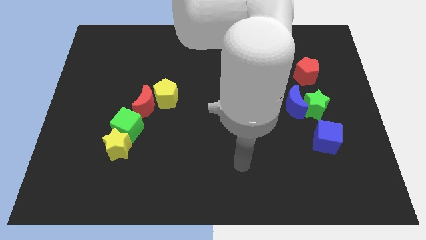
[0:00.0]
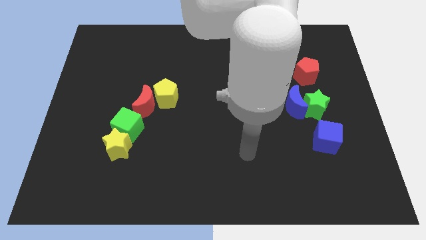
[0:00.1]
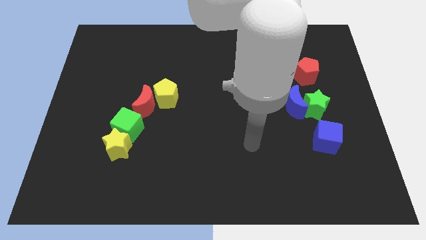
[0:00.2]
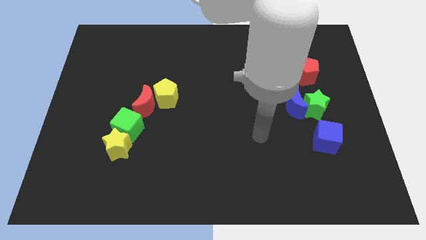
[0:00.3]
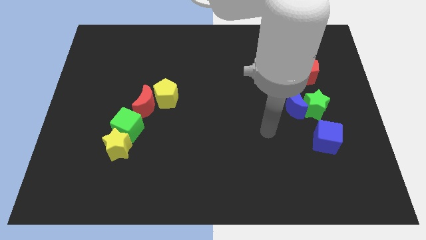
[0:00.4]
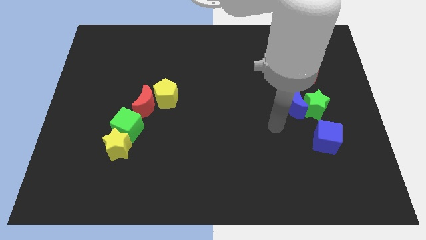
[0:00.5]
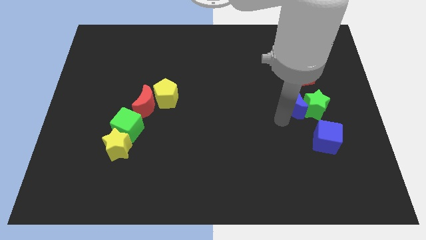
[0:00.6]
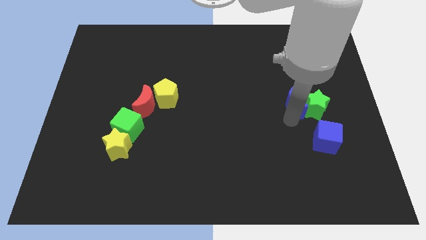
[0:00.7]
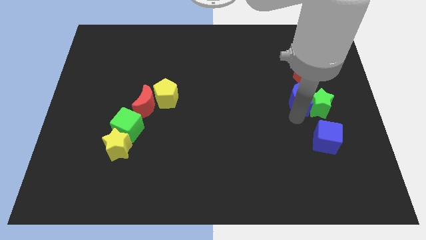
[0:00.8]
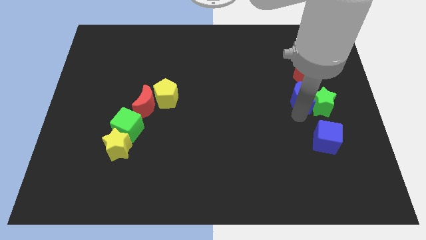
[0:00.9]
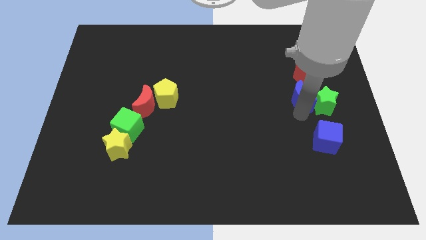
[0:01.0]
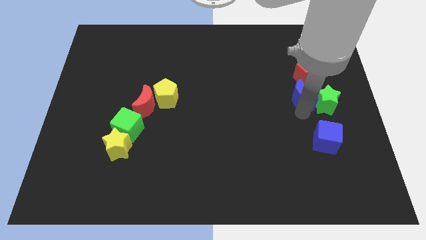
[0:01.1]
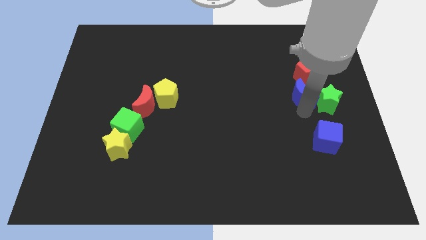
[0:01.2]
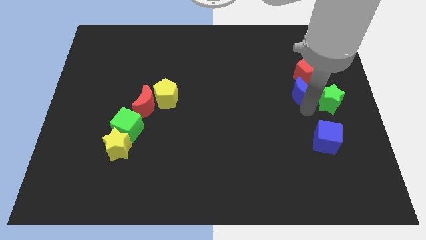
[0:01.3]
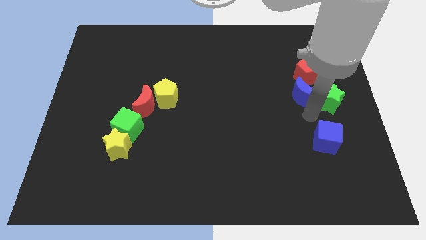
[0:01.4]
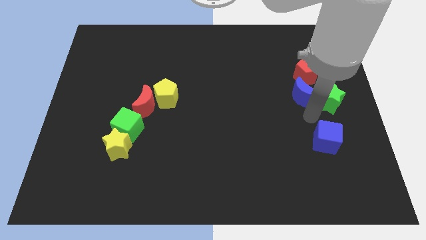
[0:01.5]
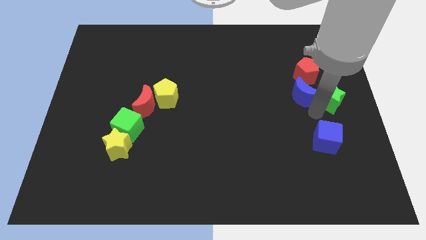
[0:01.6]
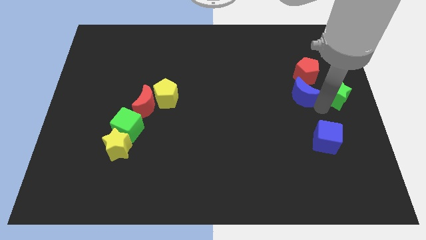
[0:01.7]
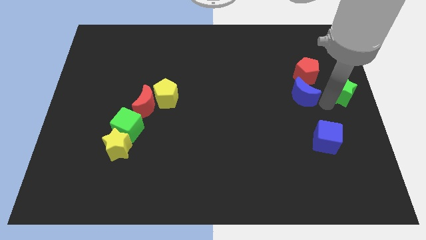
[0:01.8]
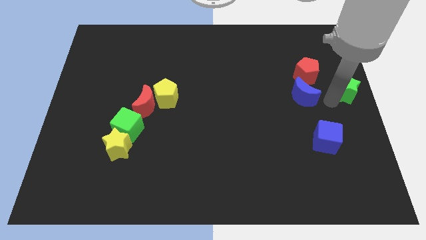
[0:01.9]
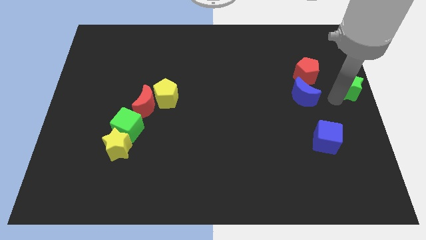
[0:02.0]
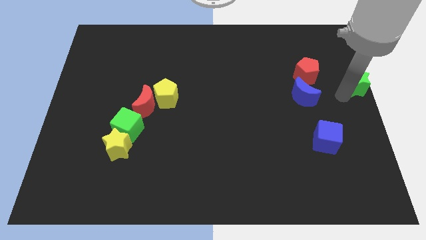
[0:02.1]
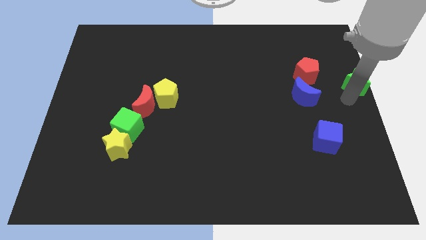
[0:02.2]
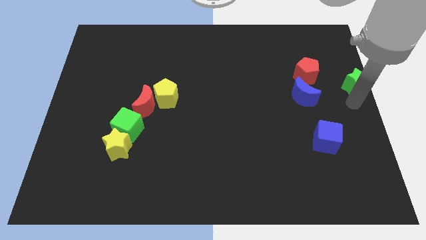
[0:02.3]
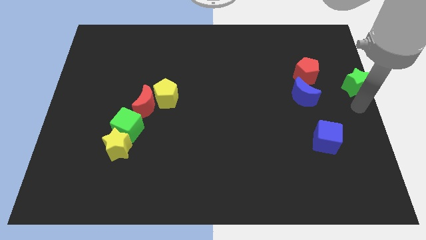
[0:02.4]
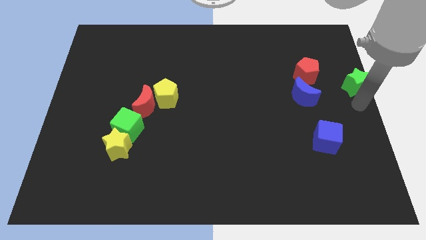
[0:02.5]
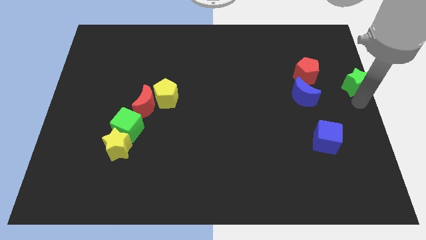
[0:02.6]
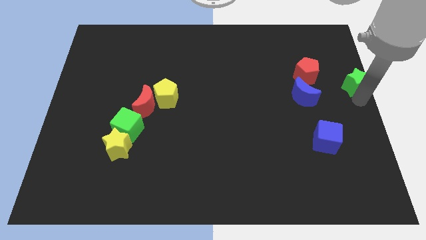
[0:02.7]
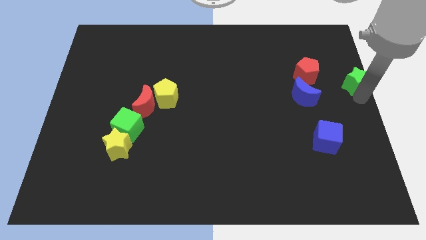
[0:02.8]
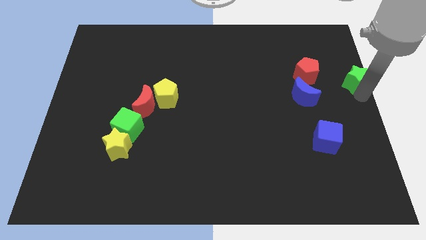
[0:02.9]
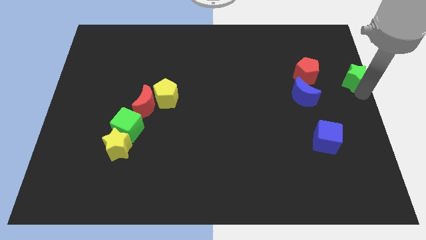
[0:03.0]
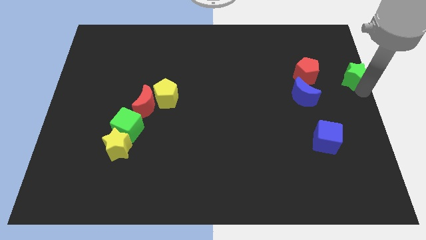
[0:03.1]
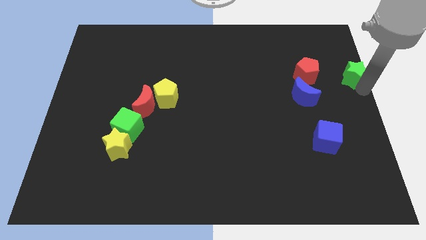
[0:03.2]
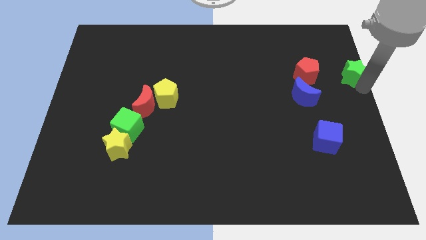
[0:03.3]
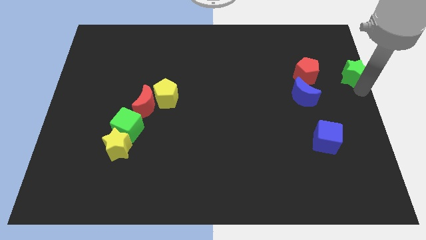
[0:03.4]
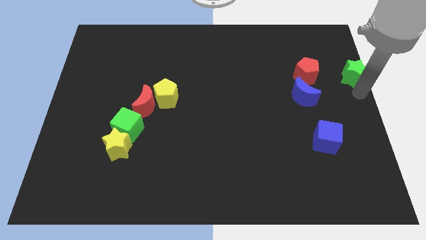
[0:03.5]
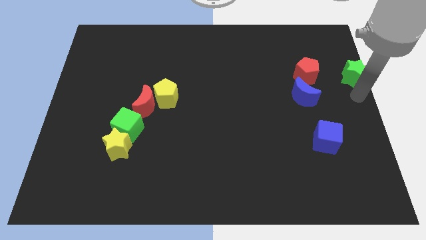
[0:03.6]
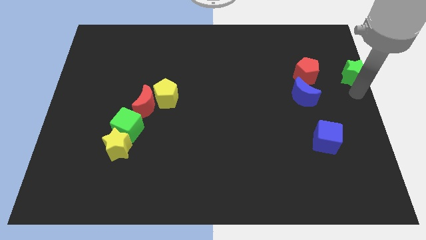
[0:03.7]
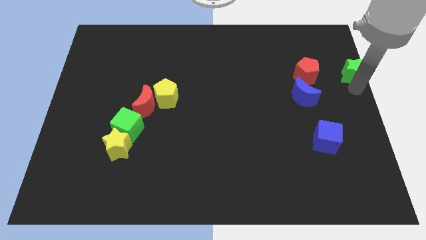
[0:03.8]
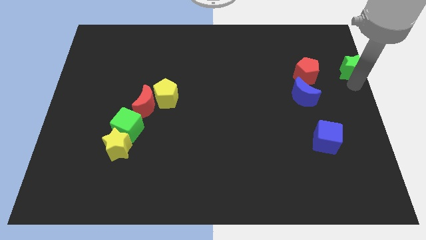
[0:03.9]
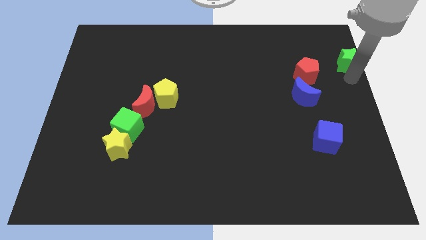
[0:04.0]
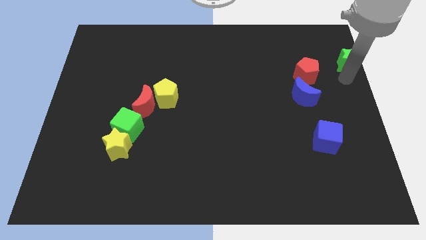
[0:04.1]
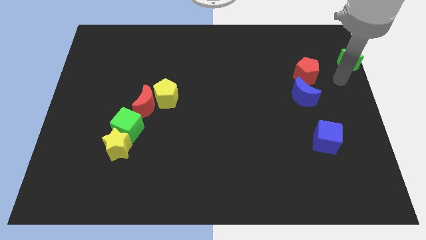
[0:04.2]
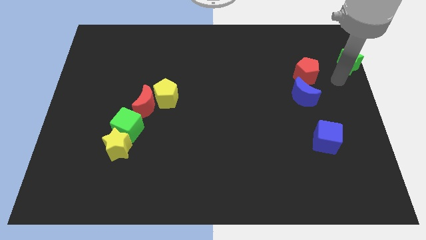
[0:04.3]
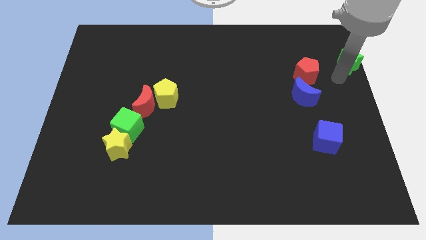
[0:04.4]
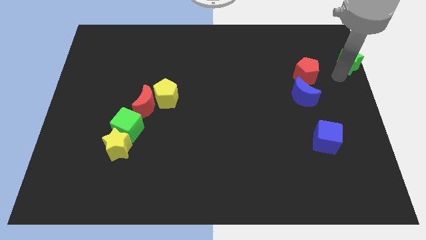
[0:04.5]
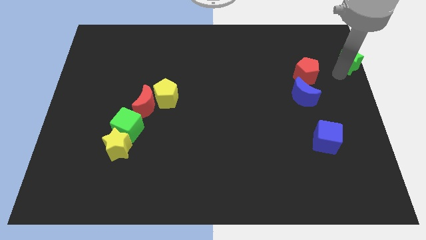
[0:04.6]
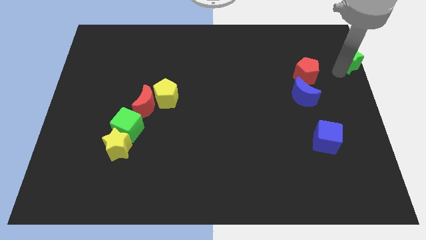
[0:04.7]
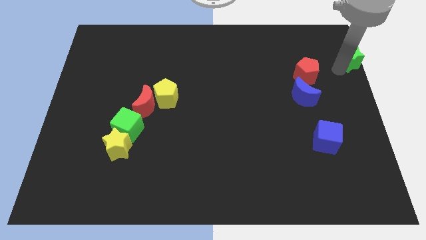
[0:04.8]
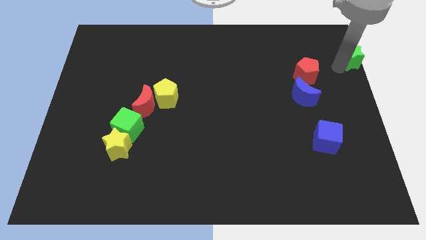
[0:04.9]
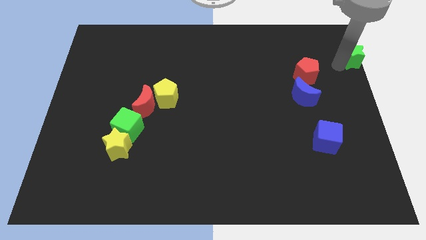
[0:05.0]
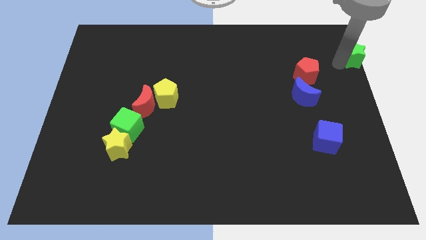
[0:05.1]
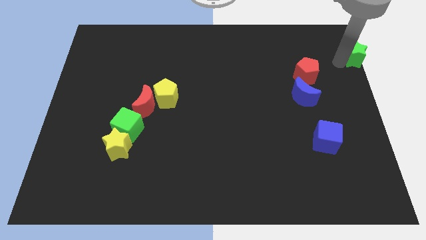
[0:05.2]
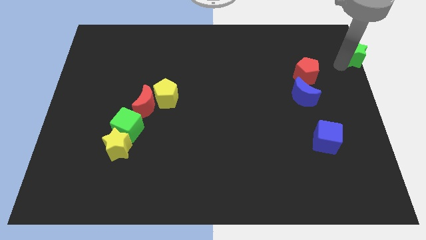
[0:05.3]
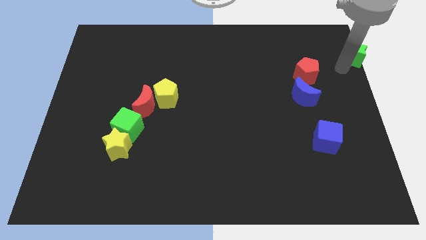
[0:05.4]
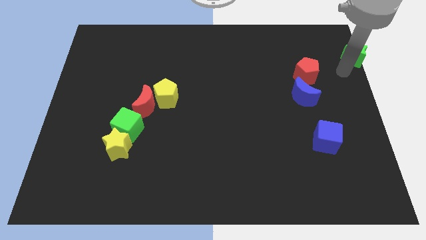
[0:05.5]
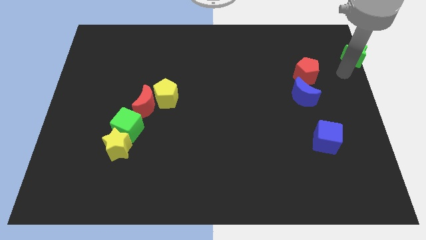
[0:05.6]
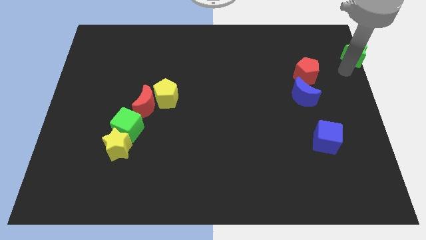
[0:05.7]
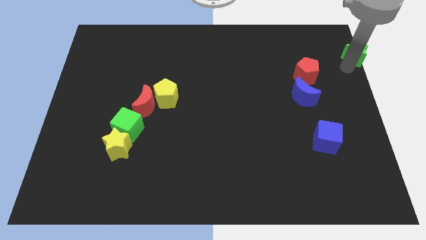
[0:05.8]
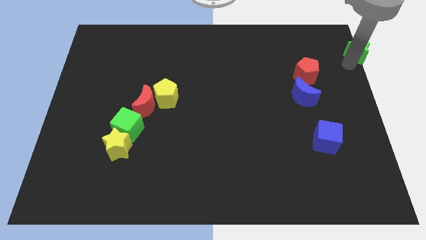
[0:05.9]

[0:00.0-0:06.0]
move the green star to the top right corner

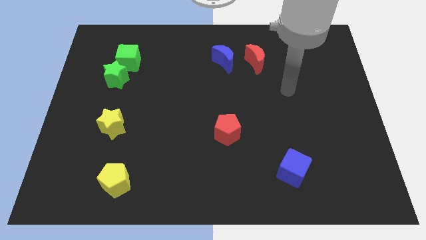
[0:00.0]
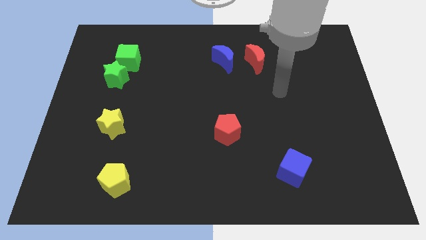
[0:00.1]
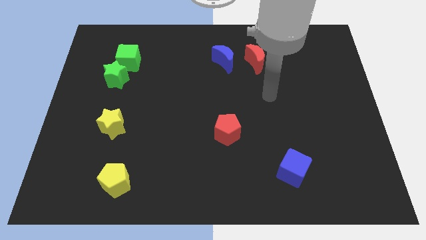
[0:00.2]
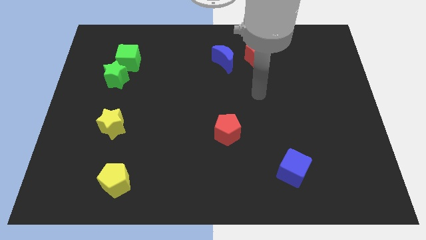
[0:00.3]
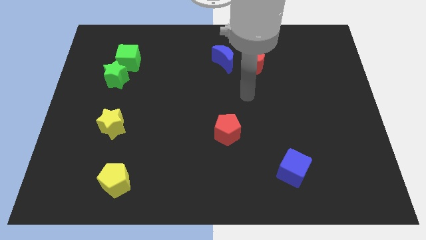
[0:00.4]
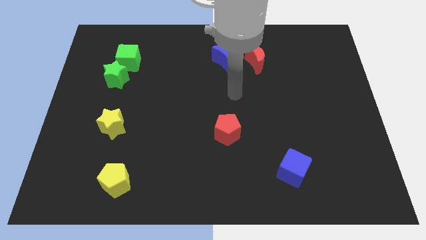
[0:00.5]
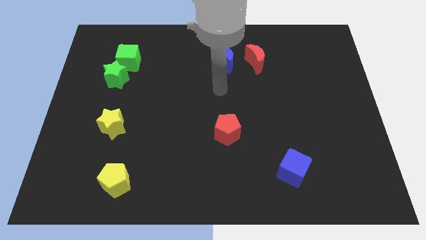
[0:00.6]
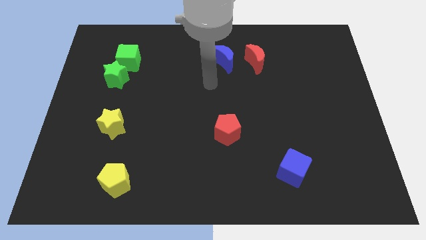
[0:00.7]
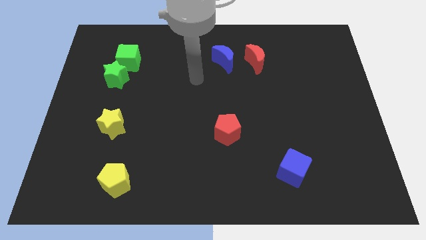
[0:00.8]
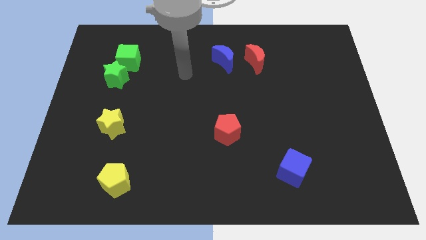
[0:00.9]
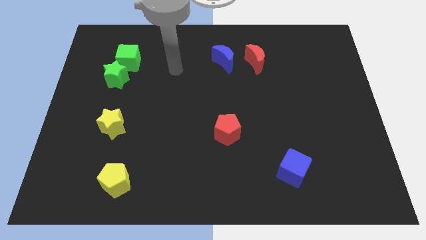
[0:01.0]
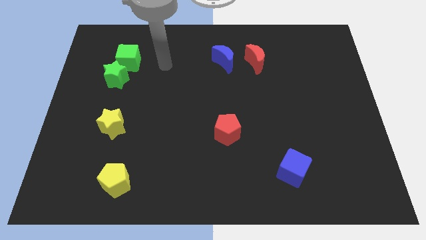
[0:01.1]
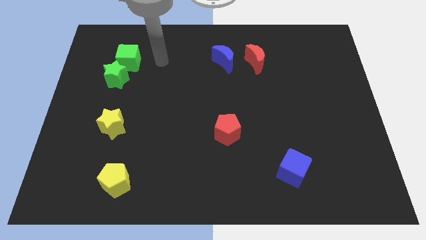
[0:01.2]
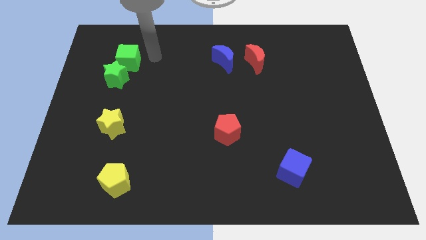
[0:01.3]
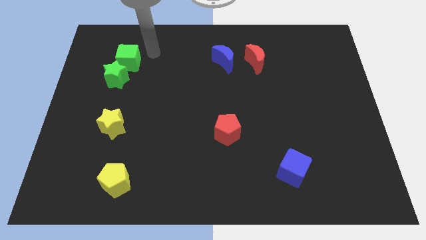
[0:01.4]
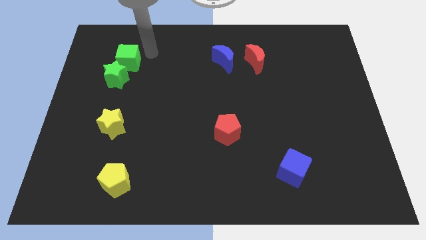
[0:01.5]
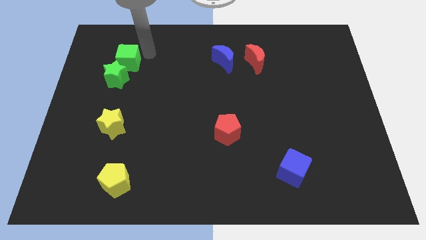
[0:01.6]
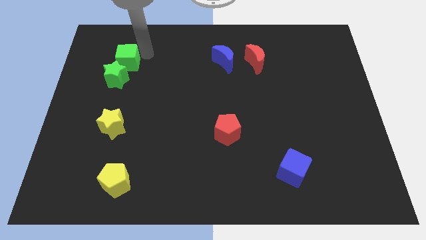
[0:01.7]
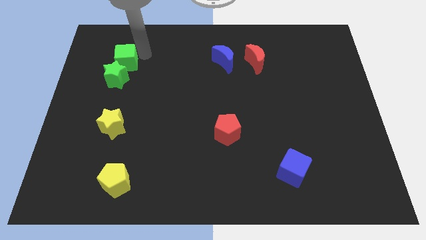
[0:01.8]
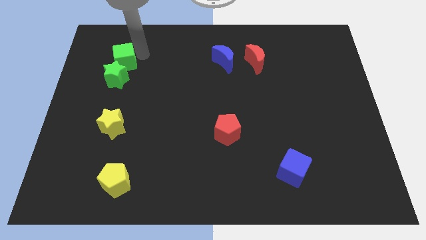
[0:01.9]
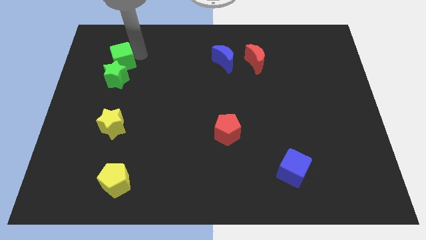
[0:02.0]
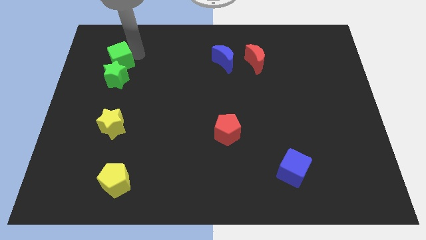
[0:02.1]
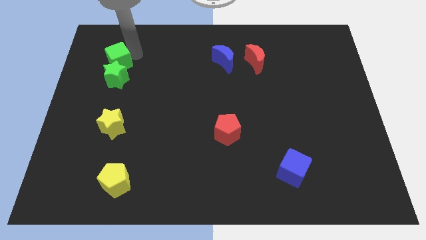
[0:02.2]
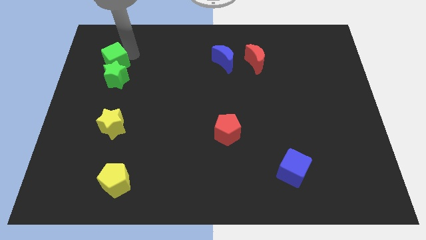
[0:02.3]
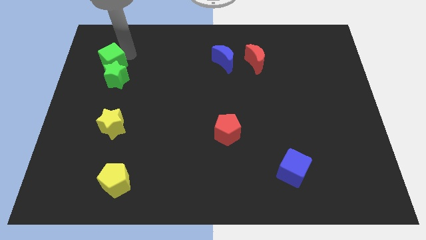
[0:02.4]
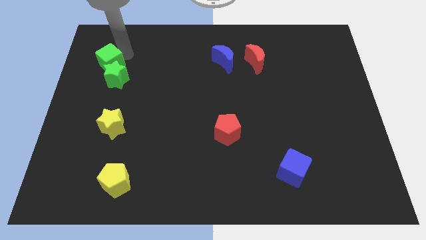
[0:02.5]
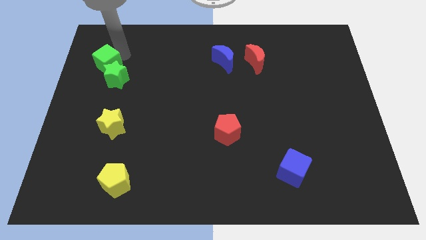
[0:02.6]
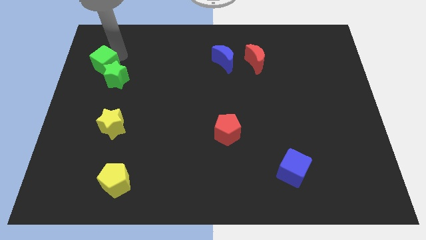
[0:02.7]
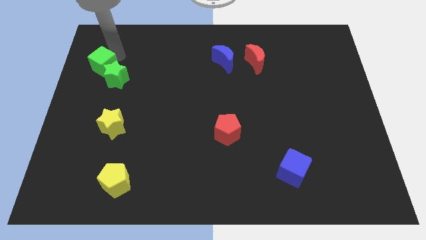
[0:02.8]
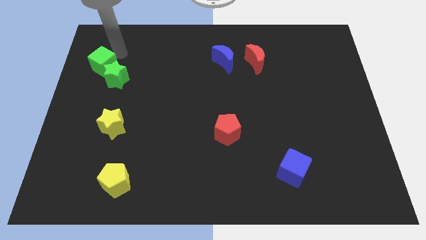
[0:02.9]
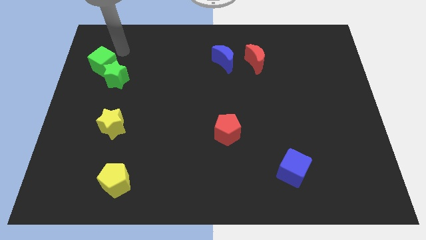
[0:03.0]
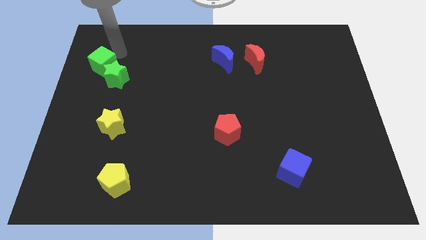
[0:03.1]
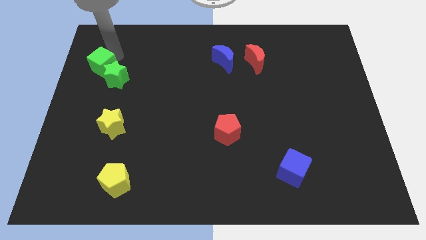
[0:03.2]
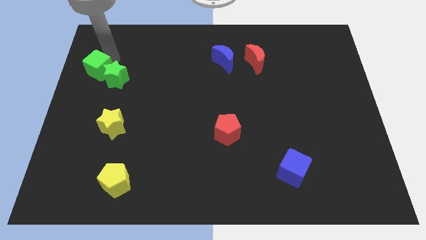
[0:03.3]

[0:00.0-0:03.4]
push the green cube to the left side of the board
